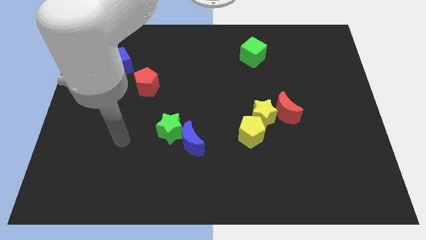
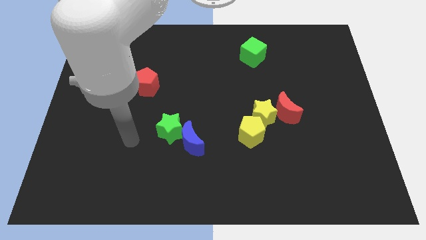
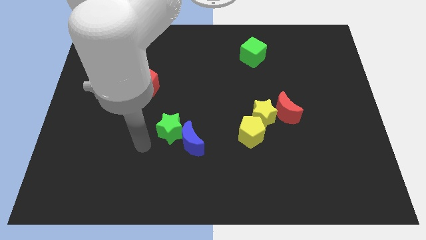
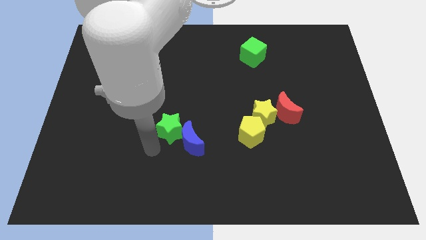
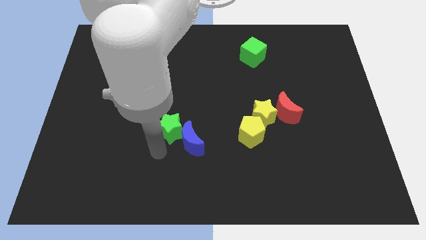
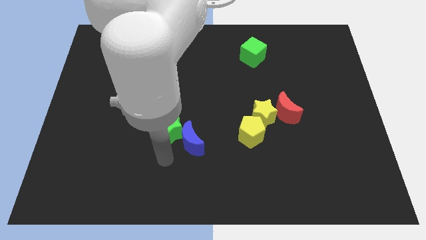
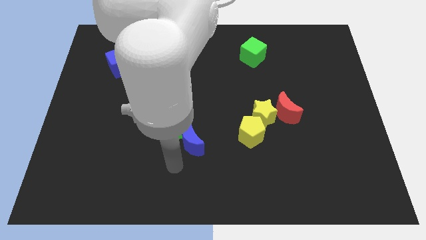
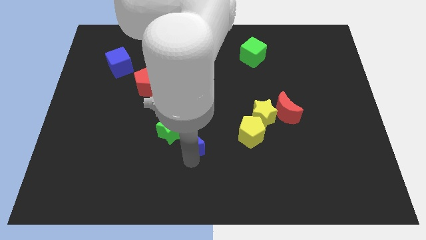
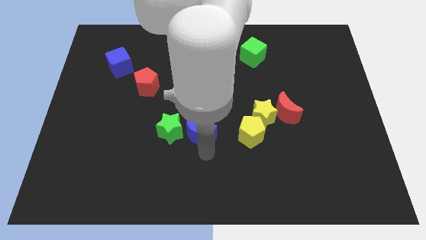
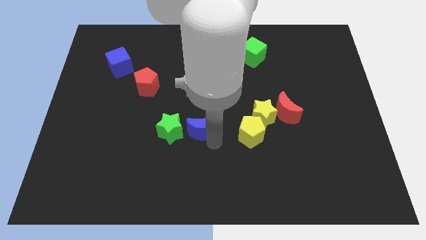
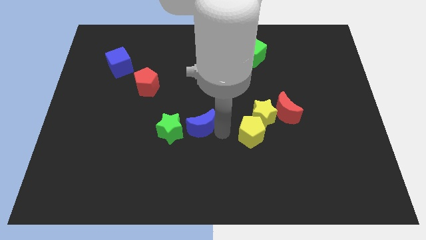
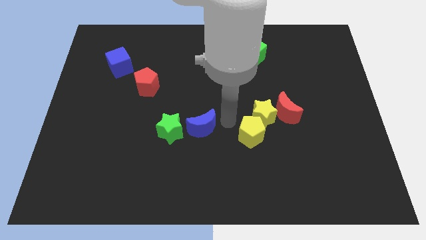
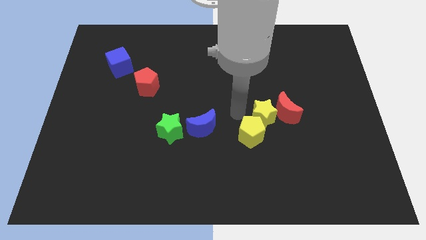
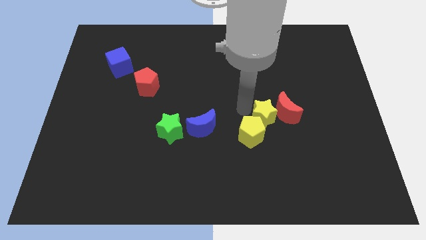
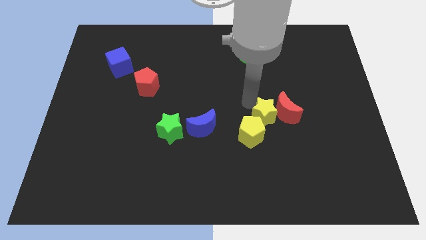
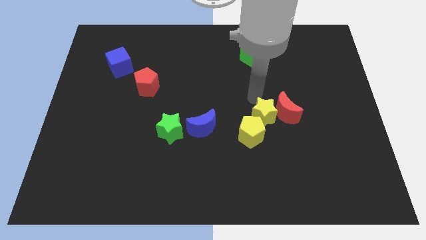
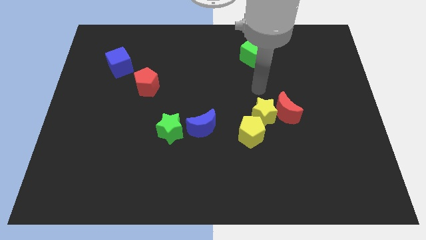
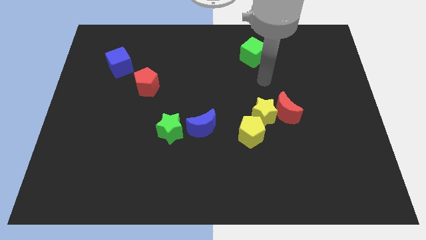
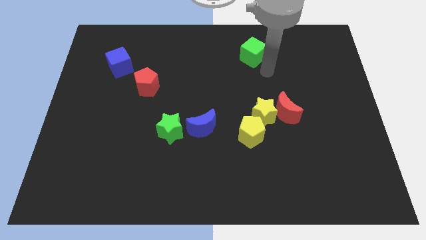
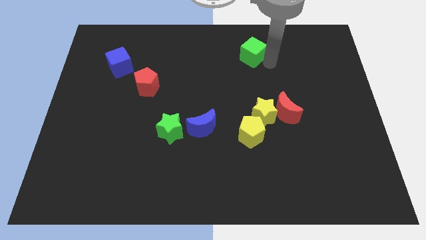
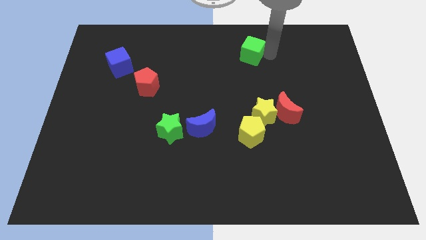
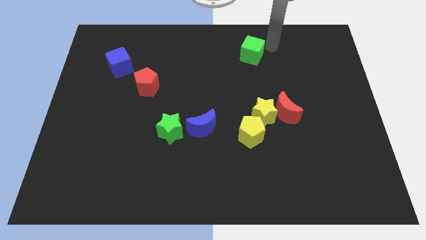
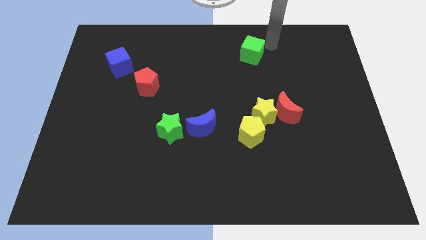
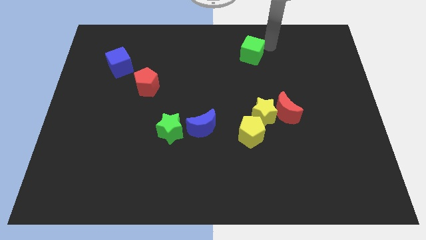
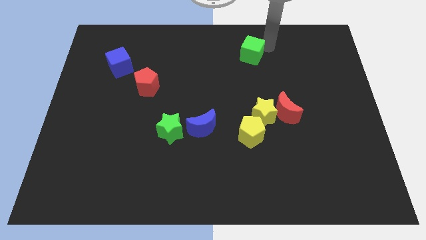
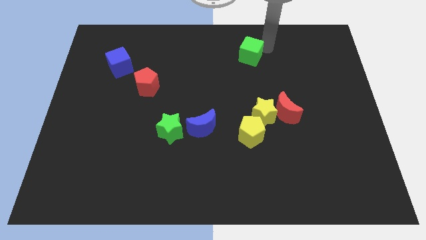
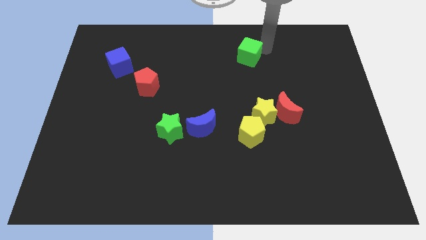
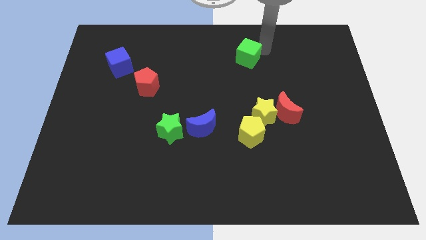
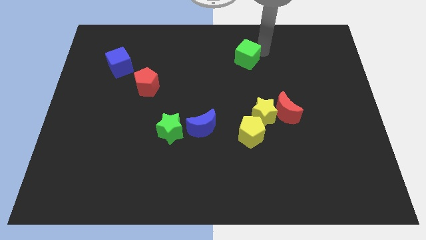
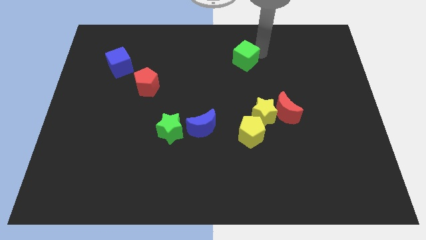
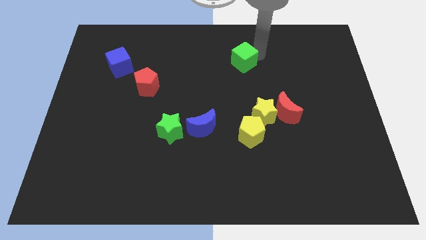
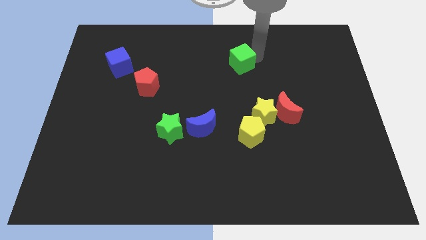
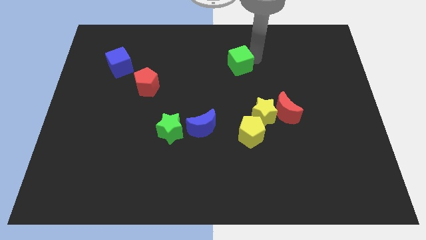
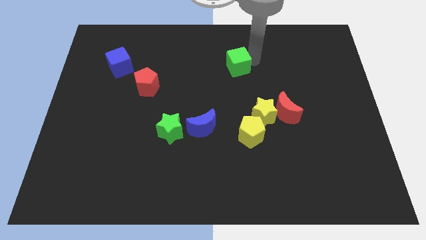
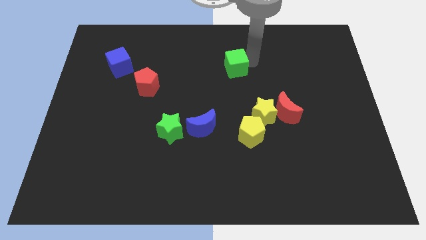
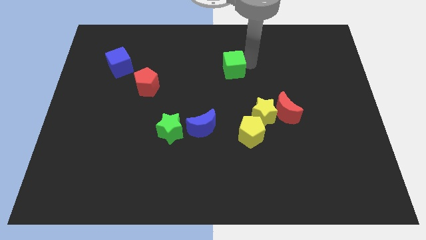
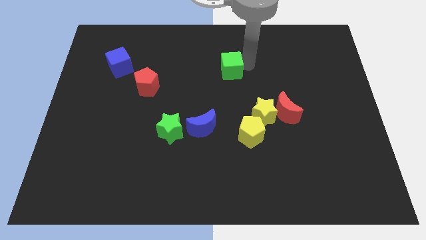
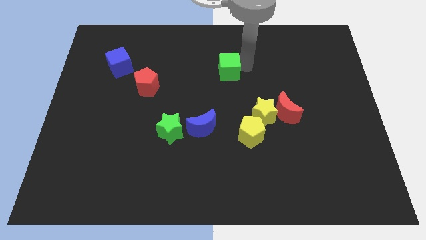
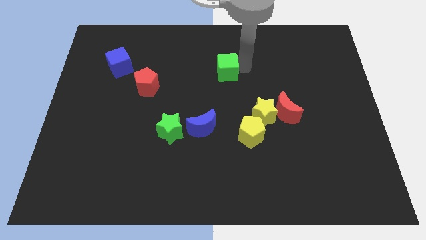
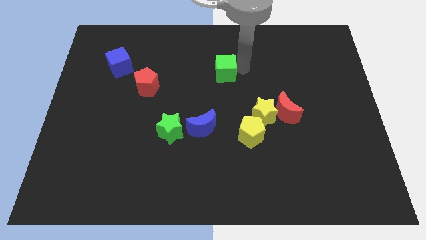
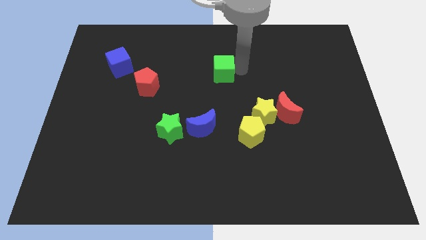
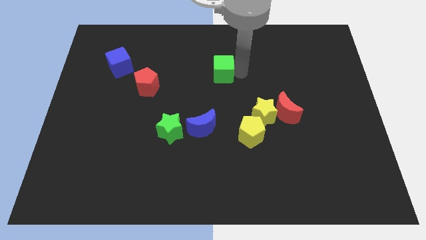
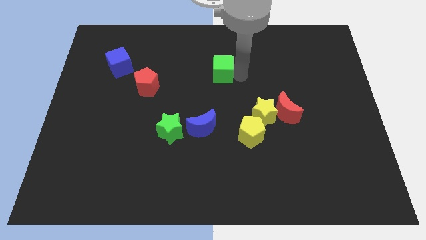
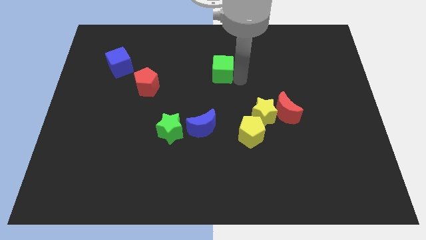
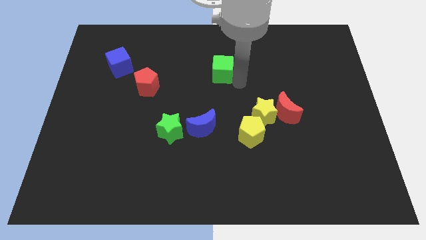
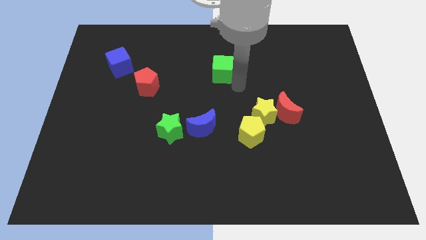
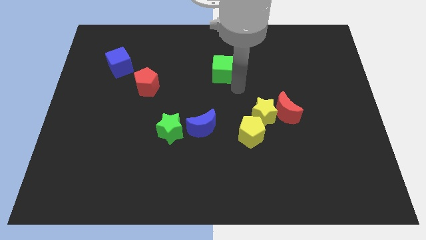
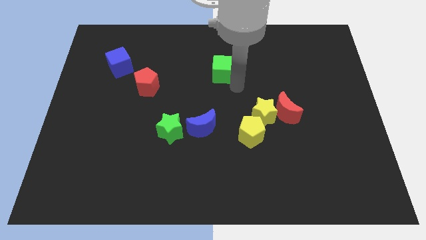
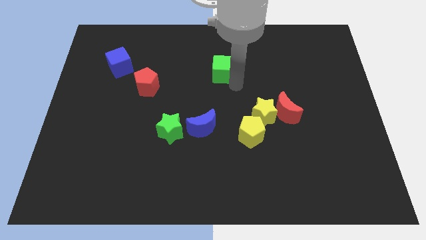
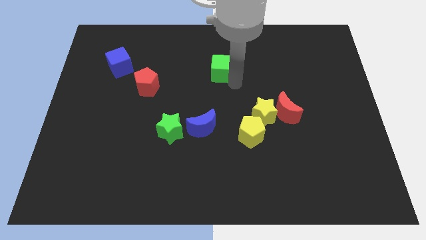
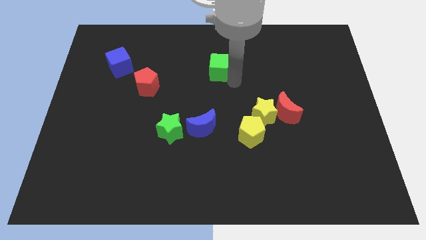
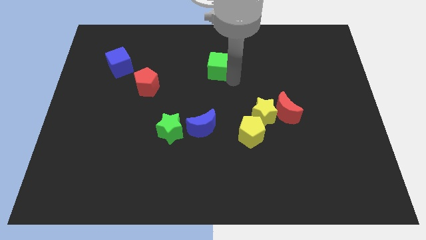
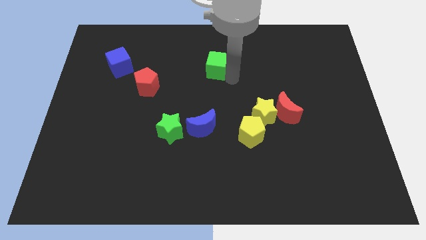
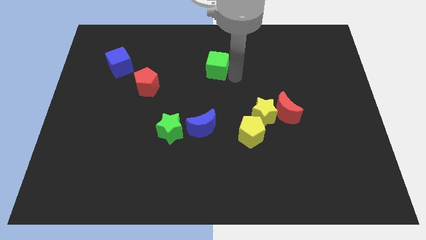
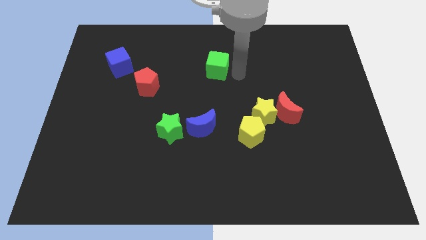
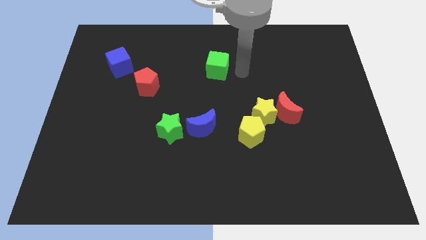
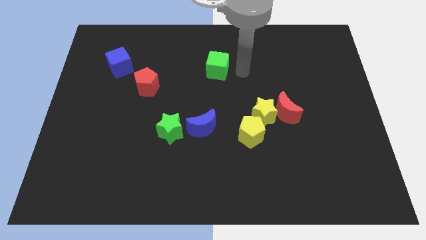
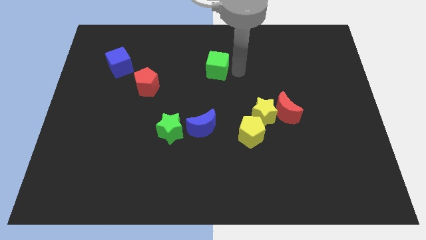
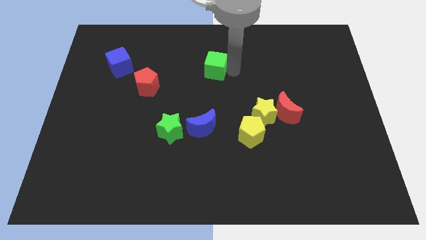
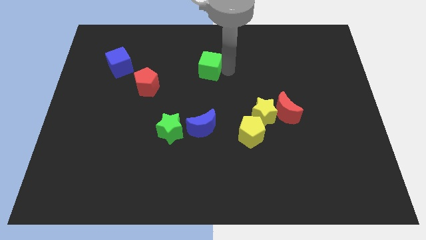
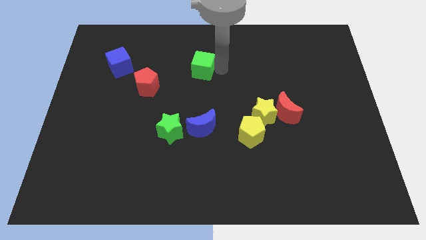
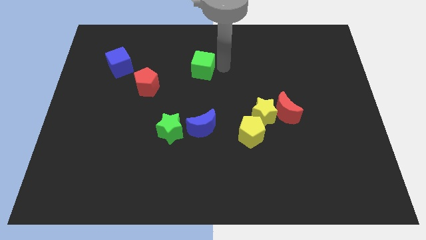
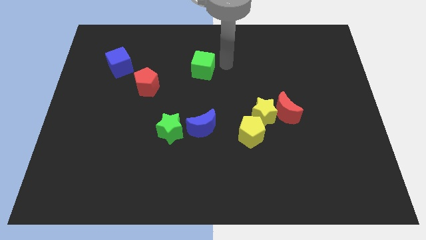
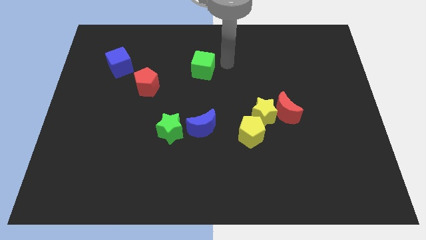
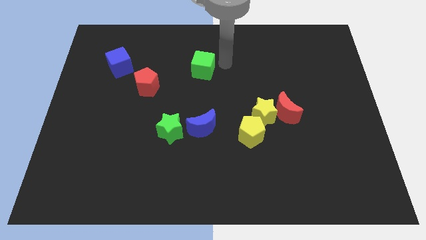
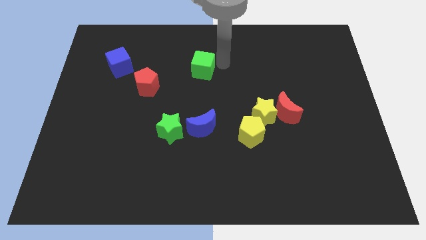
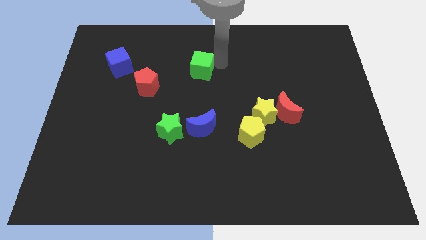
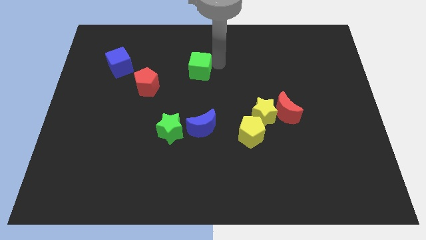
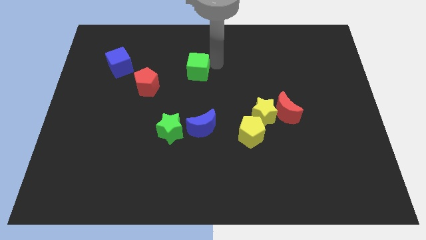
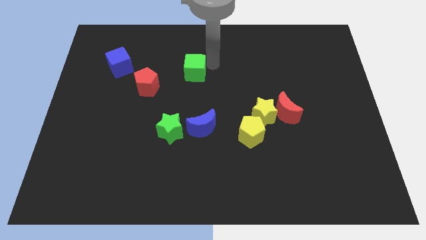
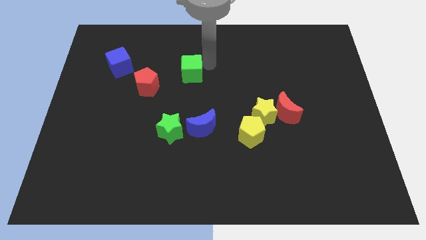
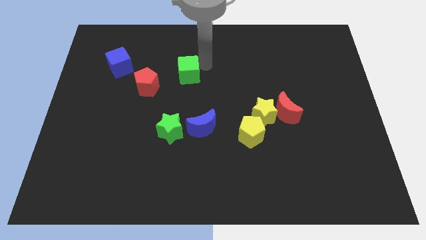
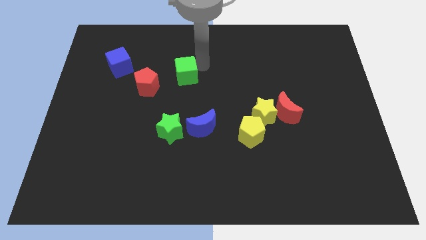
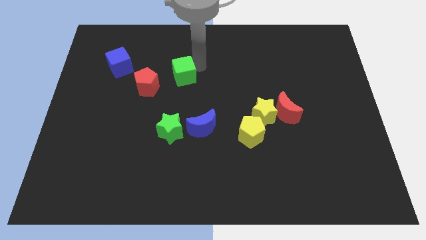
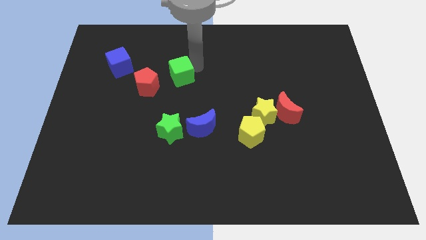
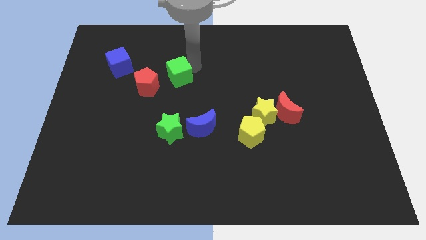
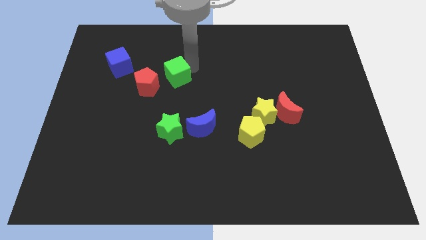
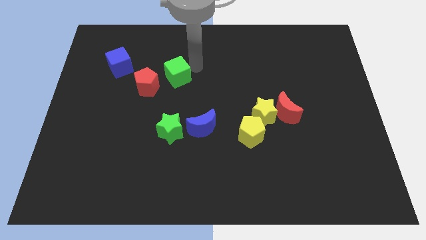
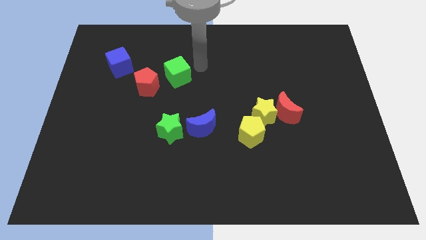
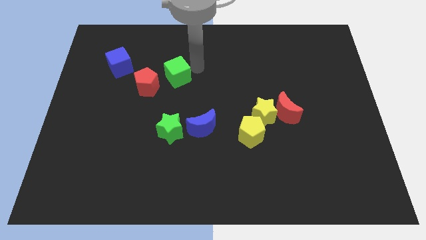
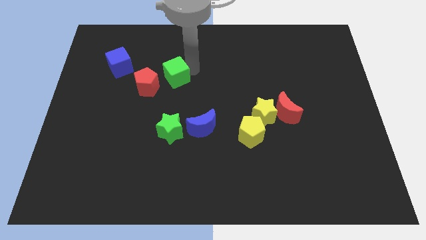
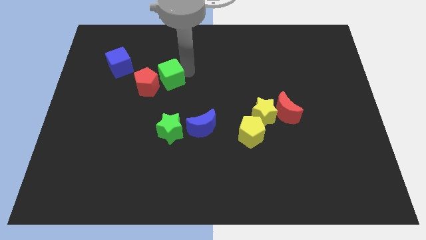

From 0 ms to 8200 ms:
put the green cube to the red pentagon
